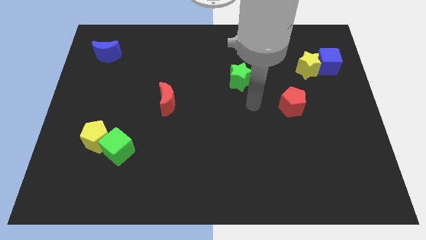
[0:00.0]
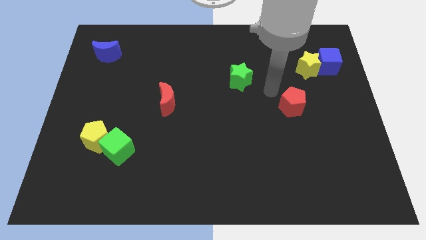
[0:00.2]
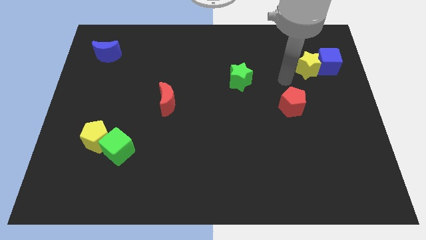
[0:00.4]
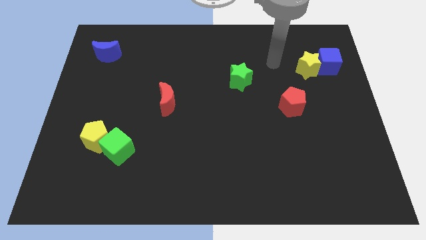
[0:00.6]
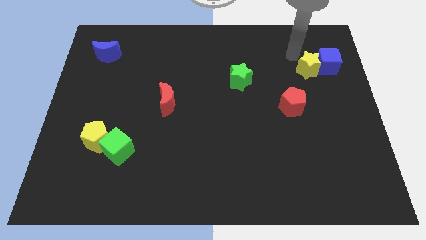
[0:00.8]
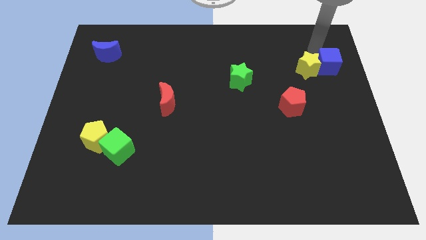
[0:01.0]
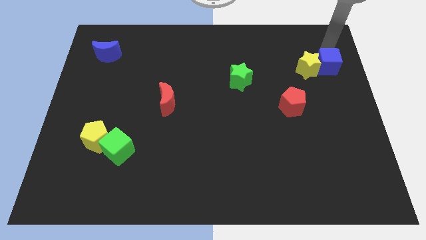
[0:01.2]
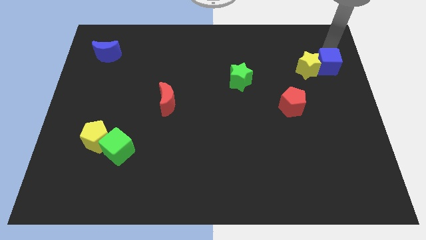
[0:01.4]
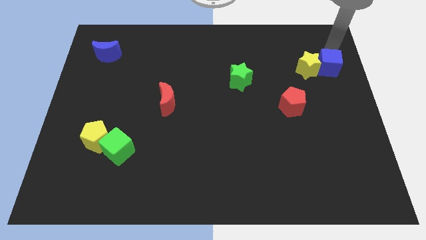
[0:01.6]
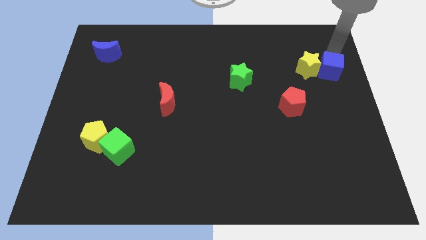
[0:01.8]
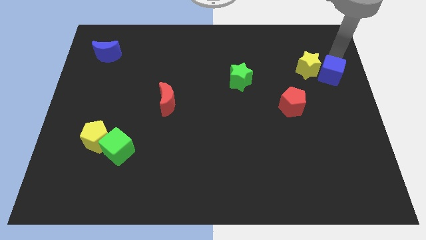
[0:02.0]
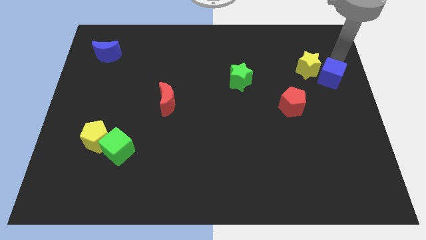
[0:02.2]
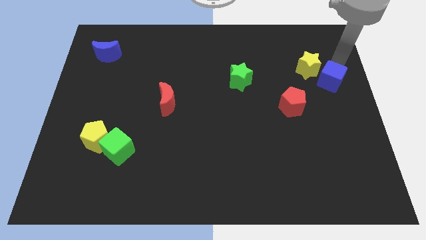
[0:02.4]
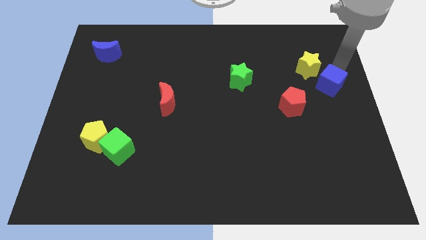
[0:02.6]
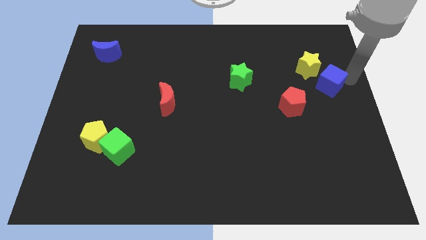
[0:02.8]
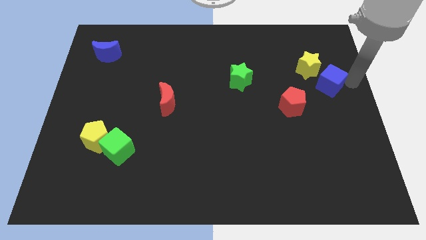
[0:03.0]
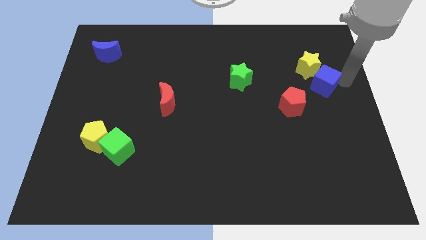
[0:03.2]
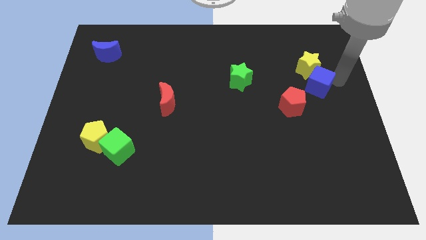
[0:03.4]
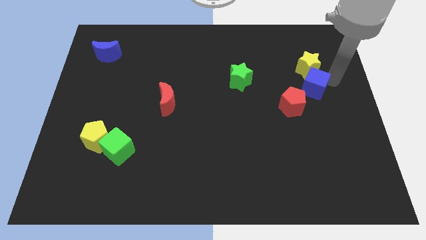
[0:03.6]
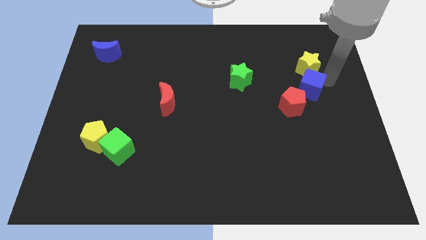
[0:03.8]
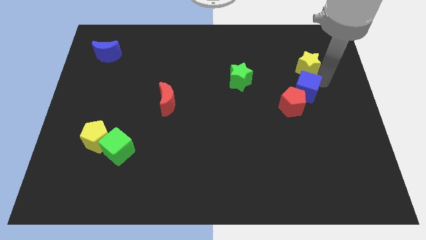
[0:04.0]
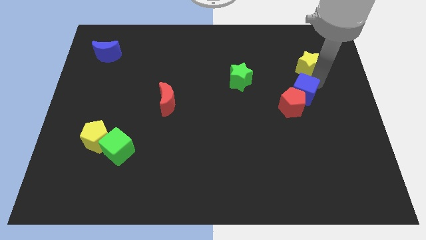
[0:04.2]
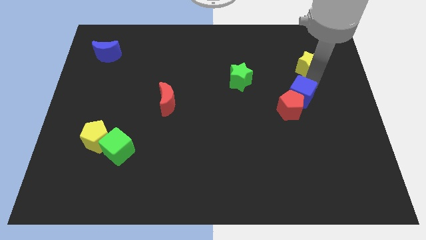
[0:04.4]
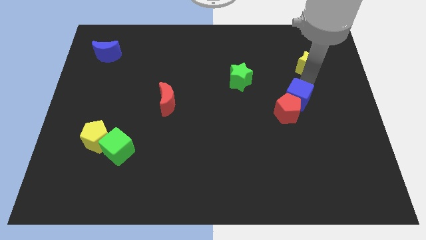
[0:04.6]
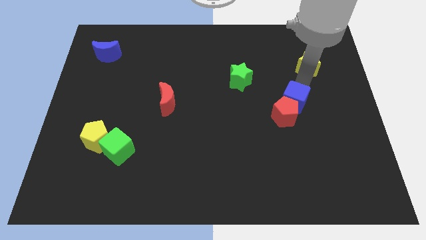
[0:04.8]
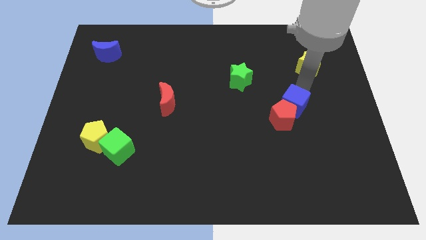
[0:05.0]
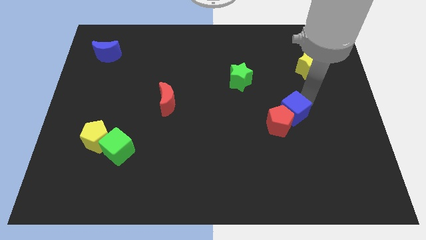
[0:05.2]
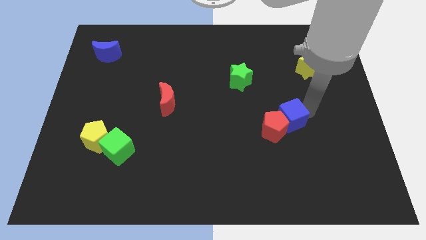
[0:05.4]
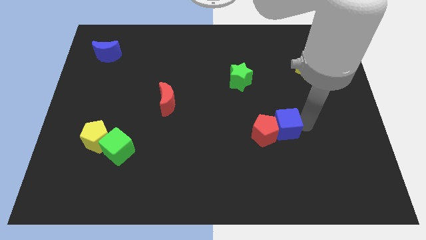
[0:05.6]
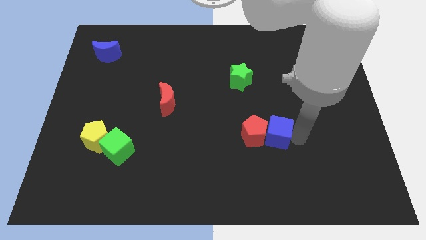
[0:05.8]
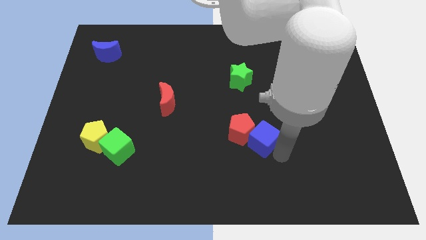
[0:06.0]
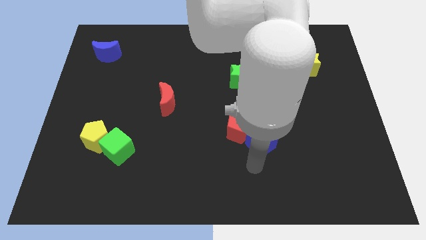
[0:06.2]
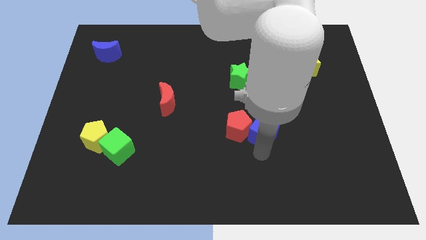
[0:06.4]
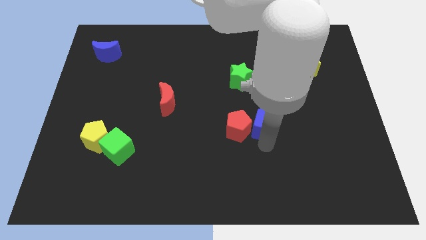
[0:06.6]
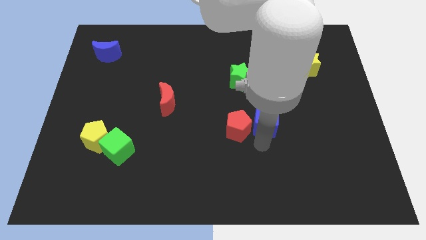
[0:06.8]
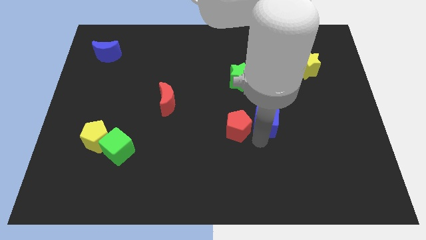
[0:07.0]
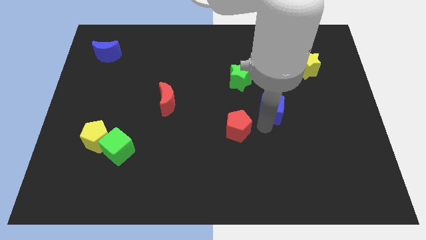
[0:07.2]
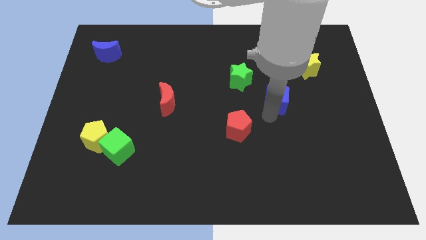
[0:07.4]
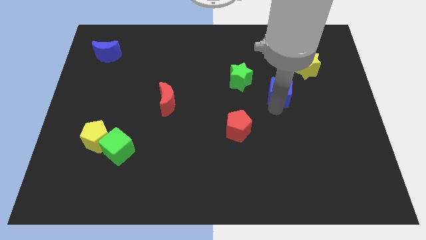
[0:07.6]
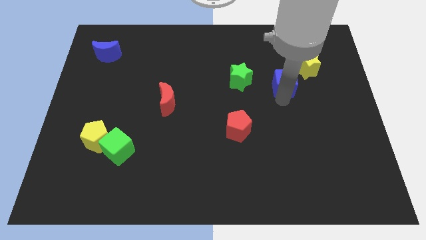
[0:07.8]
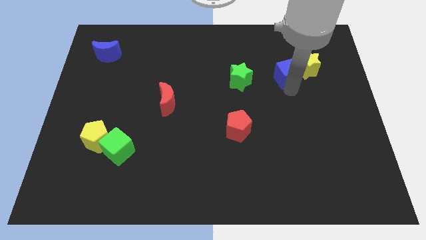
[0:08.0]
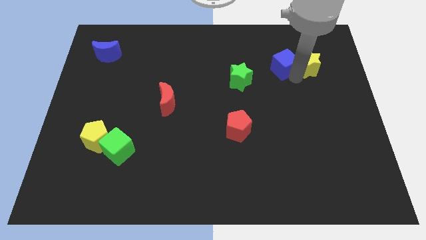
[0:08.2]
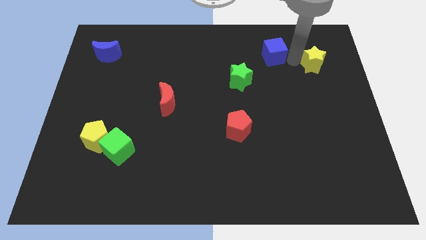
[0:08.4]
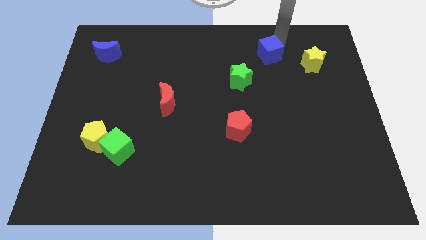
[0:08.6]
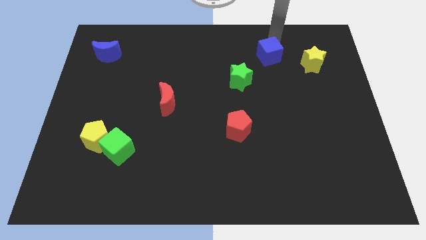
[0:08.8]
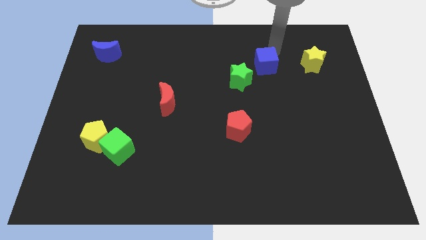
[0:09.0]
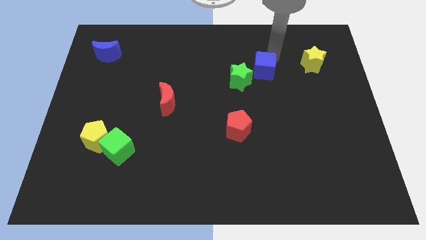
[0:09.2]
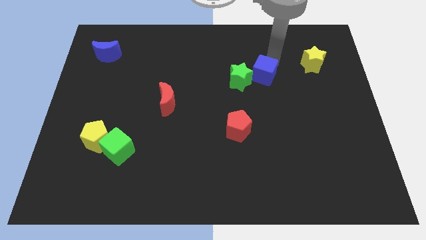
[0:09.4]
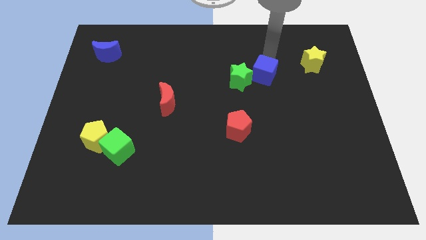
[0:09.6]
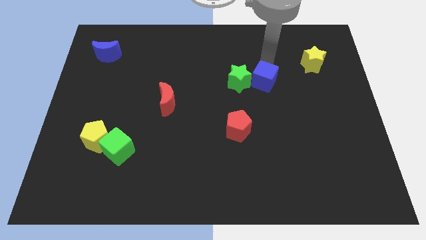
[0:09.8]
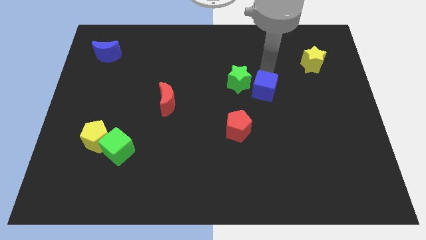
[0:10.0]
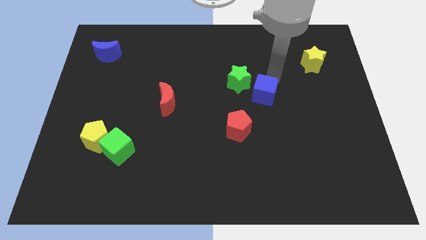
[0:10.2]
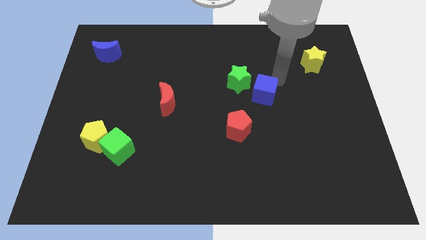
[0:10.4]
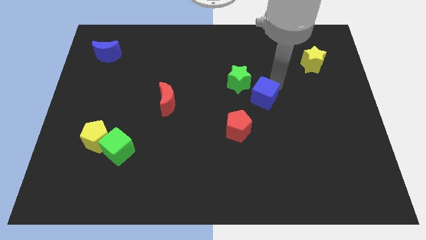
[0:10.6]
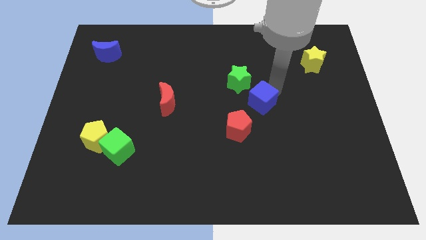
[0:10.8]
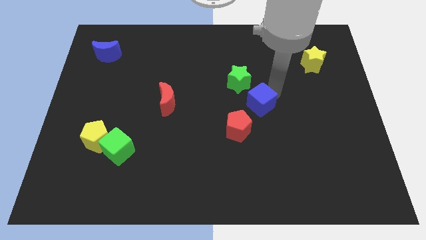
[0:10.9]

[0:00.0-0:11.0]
put the blue cube below the green star

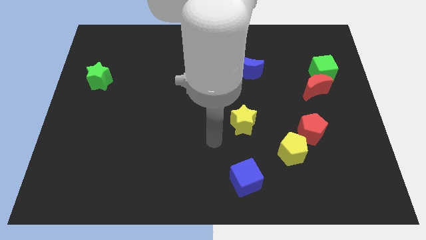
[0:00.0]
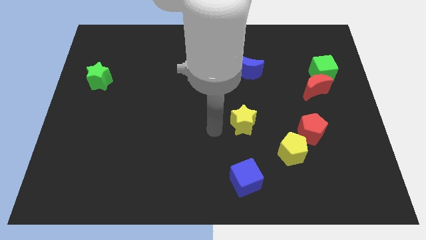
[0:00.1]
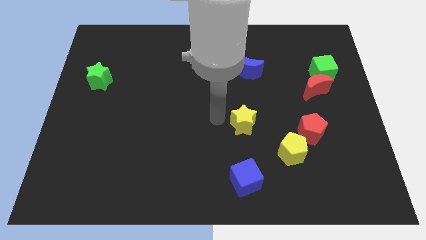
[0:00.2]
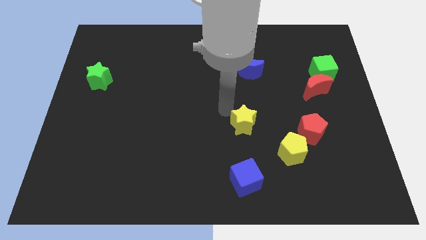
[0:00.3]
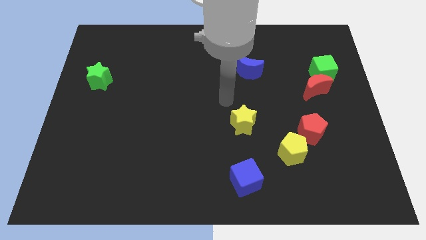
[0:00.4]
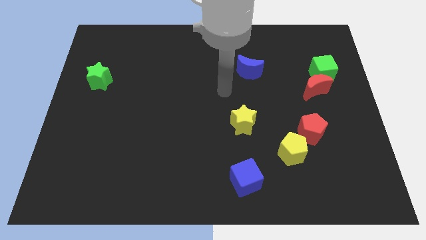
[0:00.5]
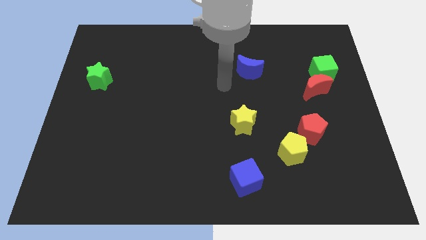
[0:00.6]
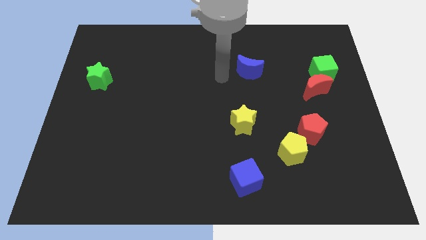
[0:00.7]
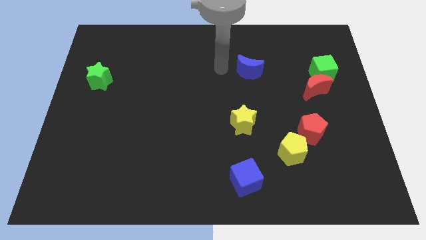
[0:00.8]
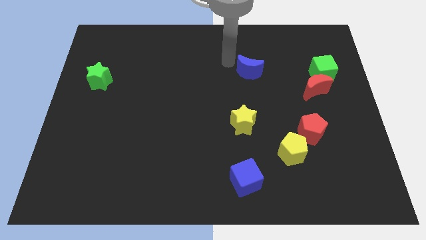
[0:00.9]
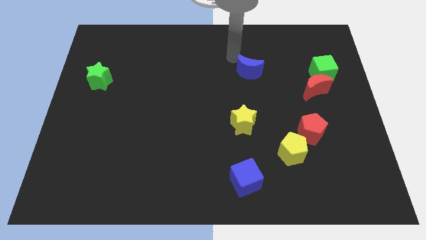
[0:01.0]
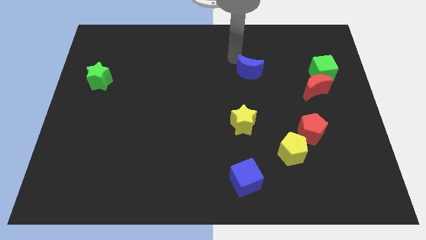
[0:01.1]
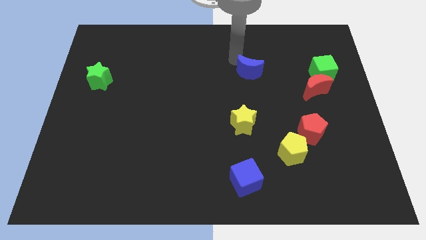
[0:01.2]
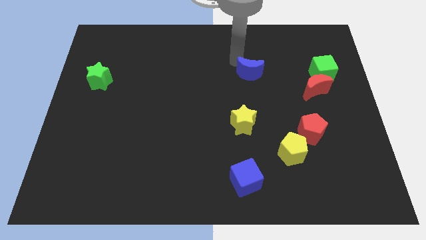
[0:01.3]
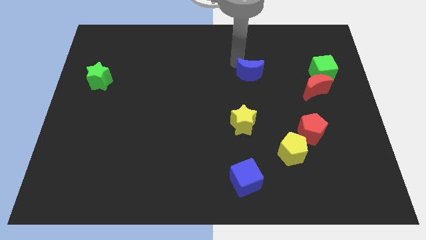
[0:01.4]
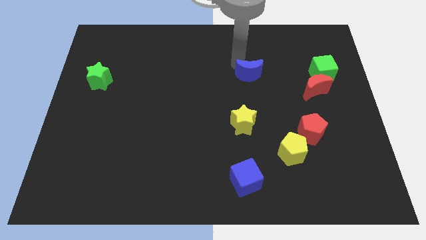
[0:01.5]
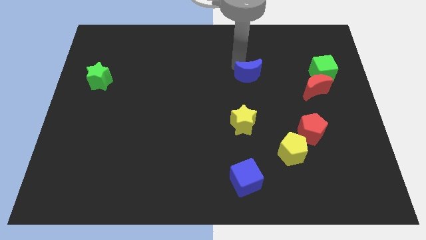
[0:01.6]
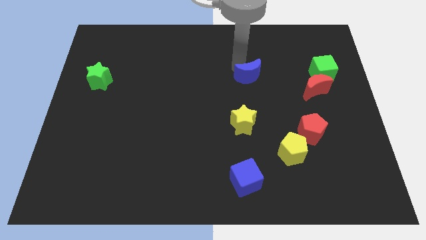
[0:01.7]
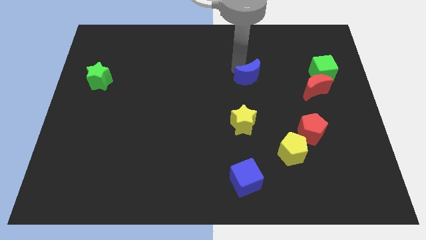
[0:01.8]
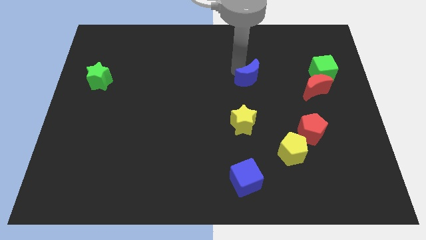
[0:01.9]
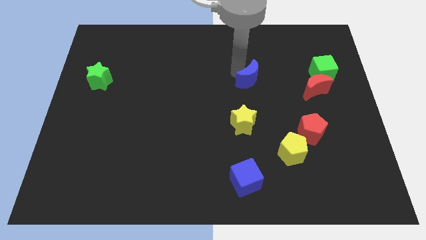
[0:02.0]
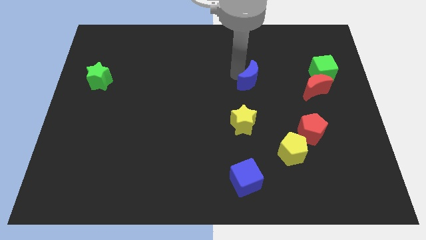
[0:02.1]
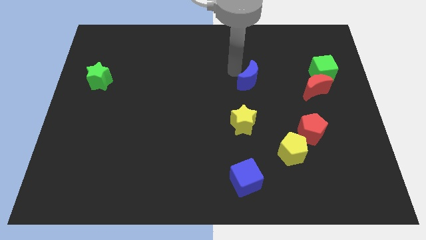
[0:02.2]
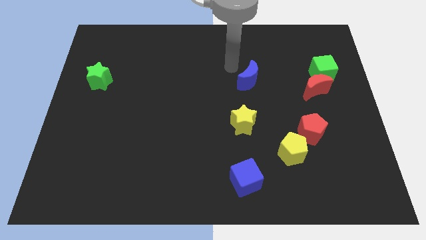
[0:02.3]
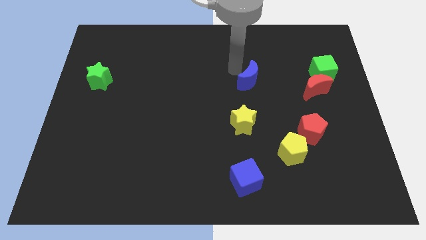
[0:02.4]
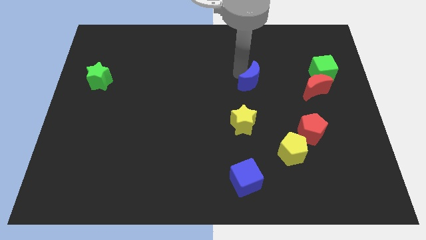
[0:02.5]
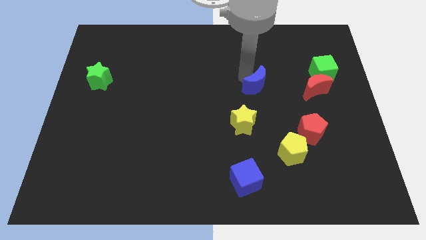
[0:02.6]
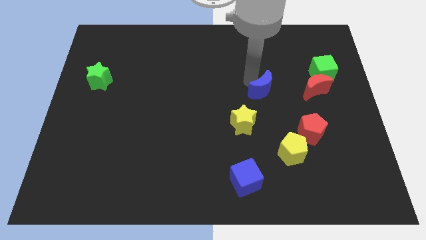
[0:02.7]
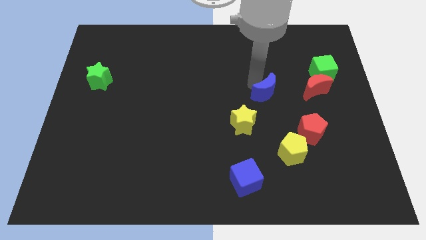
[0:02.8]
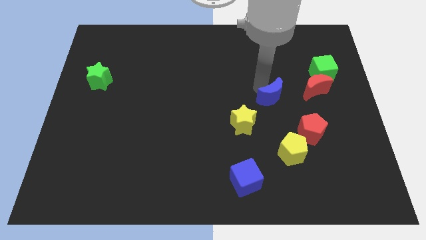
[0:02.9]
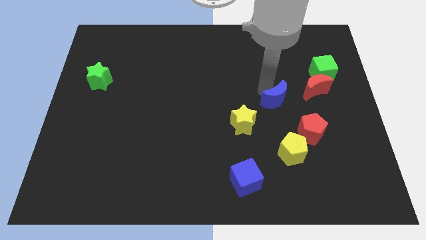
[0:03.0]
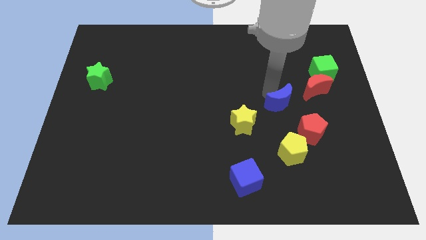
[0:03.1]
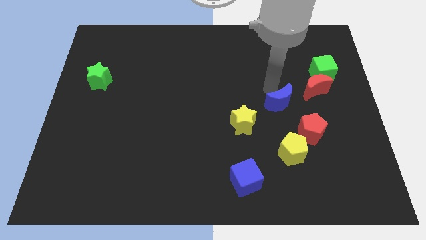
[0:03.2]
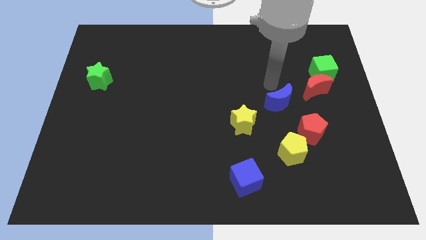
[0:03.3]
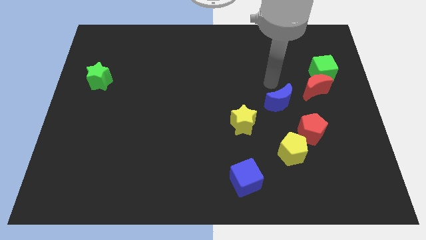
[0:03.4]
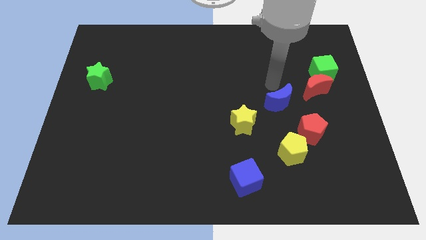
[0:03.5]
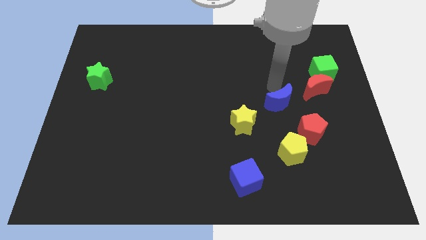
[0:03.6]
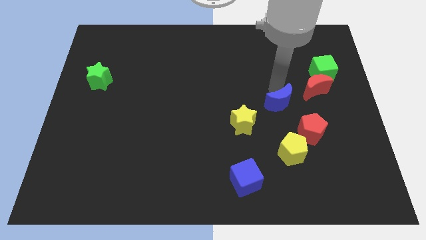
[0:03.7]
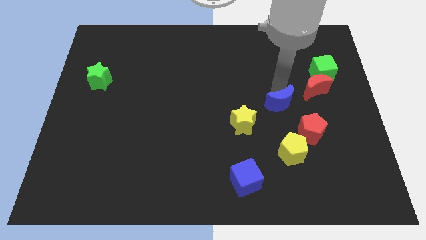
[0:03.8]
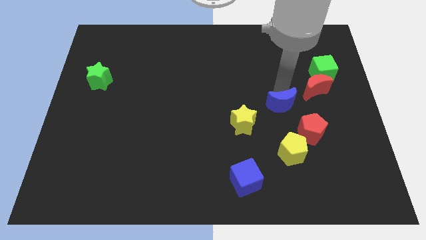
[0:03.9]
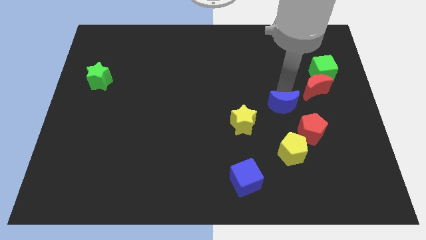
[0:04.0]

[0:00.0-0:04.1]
push the blue moon just right of the yellow star
